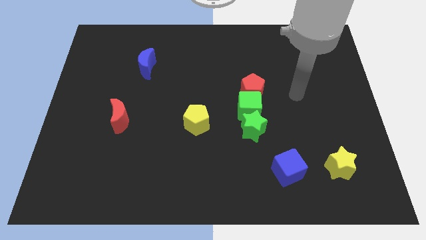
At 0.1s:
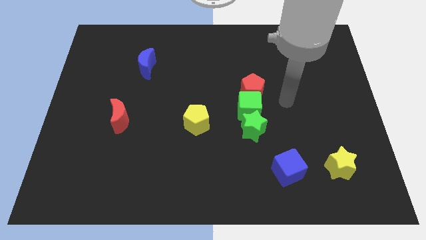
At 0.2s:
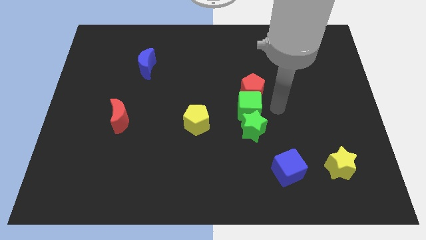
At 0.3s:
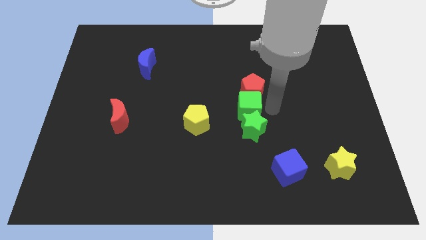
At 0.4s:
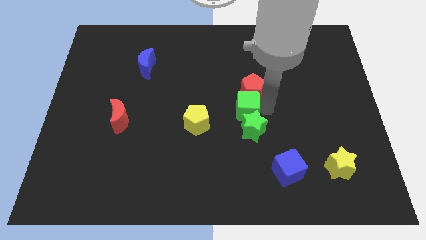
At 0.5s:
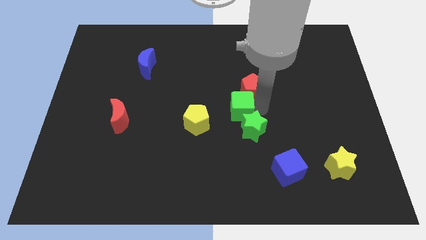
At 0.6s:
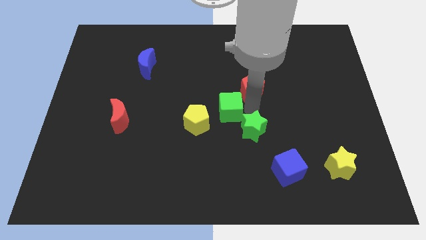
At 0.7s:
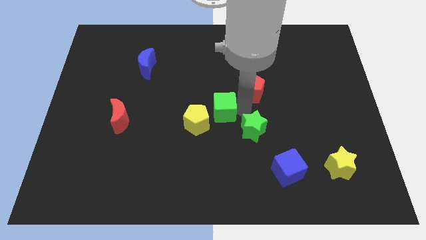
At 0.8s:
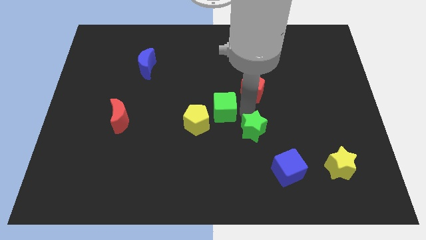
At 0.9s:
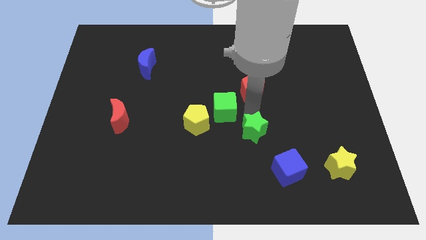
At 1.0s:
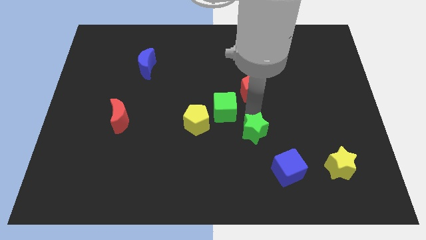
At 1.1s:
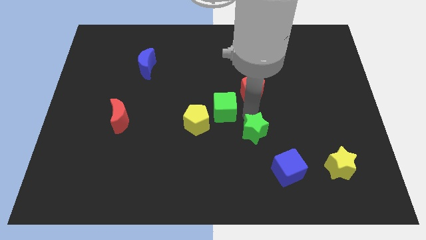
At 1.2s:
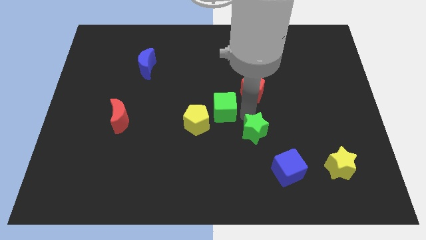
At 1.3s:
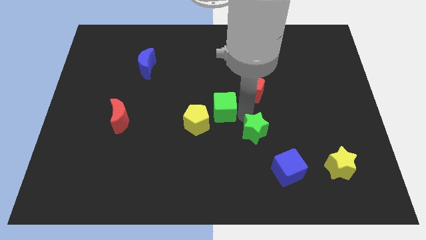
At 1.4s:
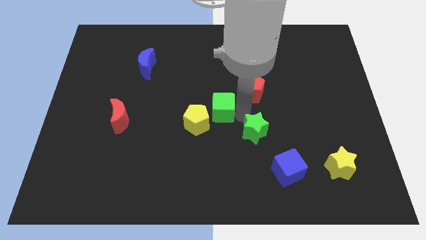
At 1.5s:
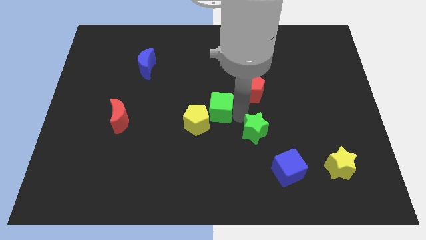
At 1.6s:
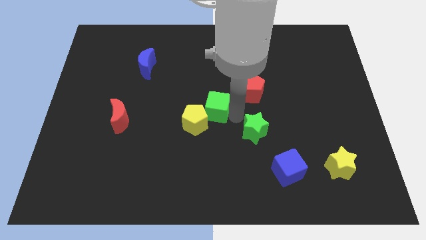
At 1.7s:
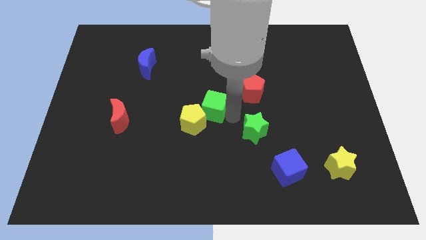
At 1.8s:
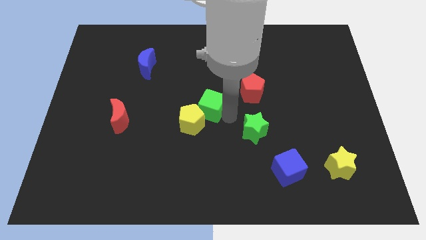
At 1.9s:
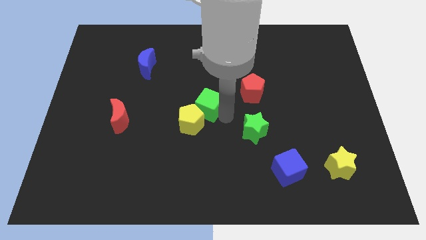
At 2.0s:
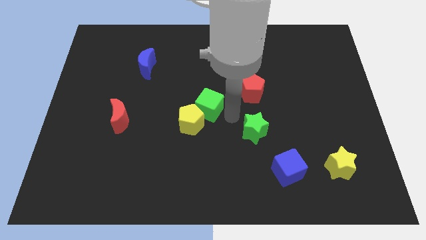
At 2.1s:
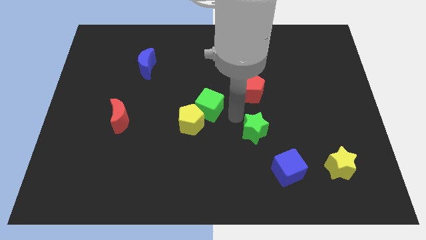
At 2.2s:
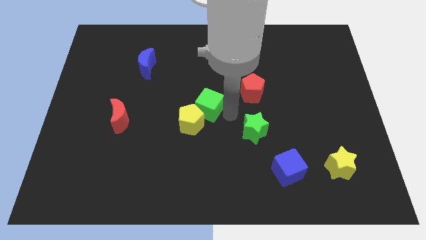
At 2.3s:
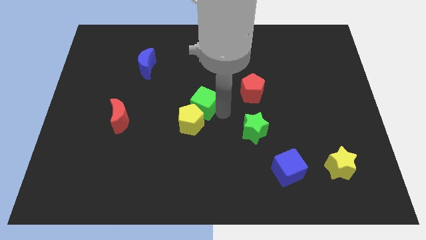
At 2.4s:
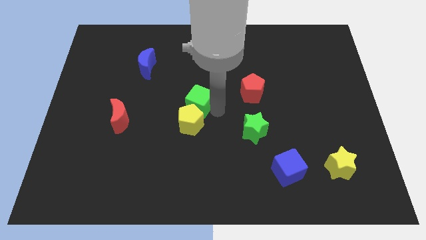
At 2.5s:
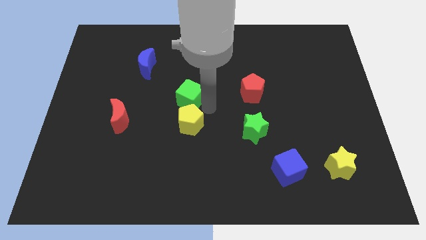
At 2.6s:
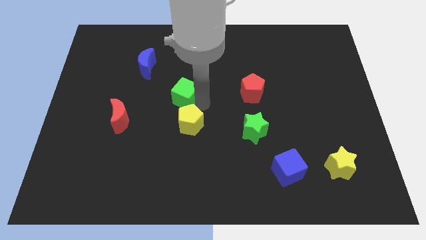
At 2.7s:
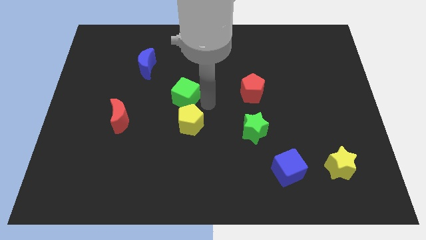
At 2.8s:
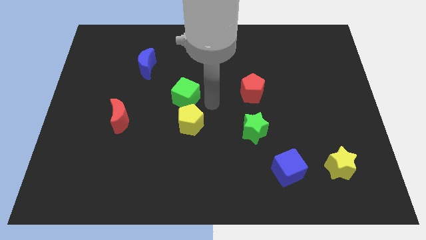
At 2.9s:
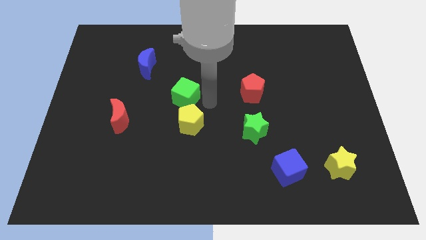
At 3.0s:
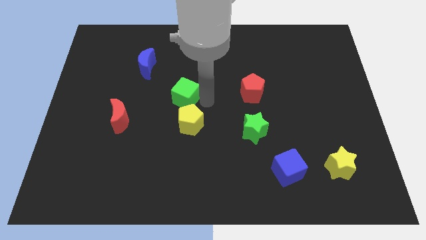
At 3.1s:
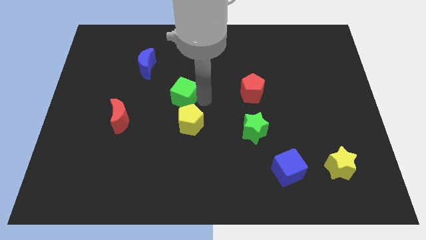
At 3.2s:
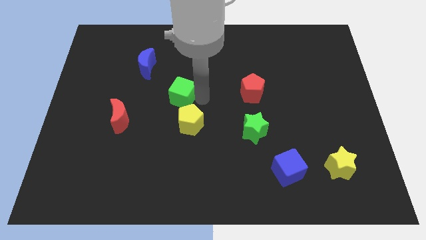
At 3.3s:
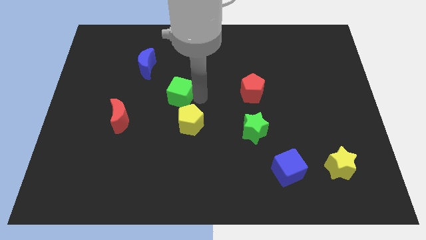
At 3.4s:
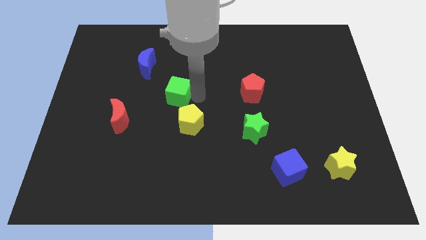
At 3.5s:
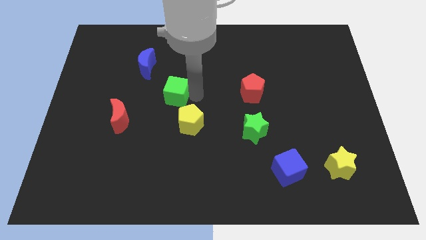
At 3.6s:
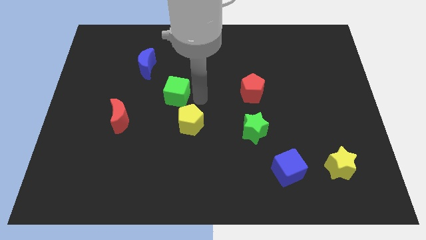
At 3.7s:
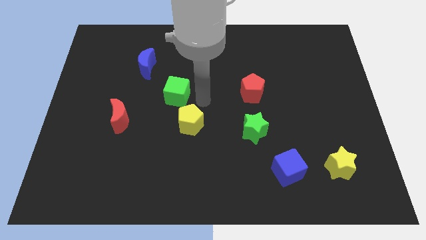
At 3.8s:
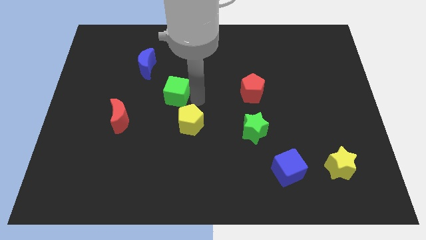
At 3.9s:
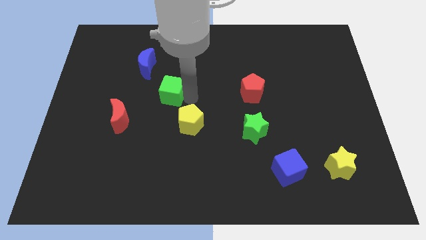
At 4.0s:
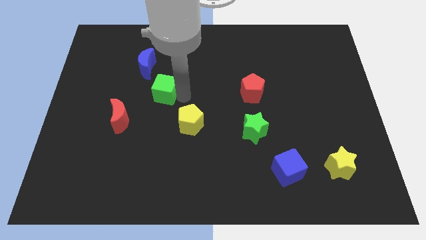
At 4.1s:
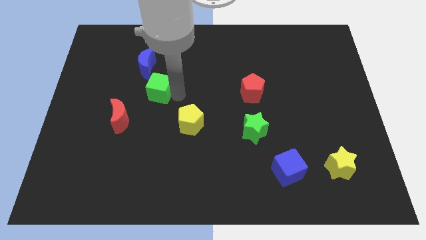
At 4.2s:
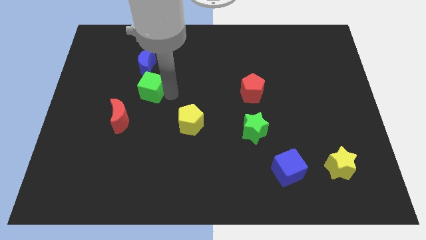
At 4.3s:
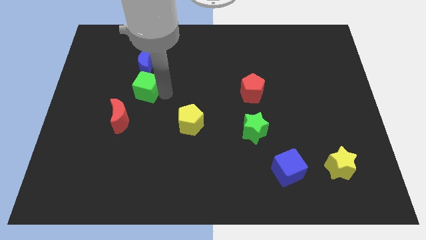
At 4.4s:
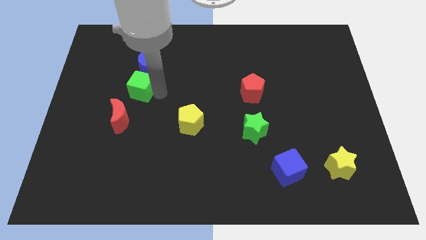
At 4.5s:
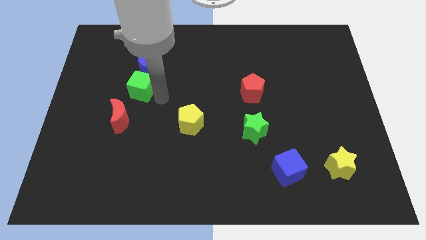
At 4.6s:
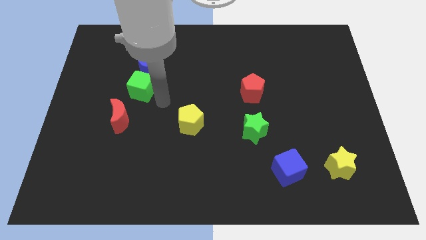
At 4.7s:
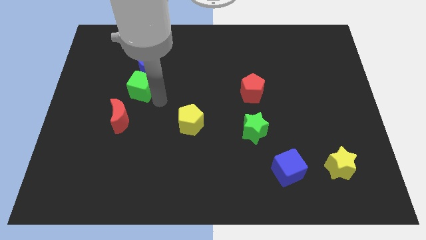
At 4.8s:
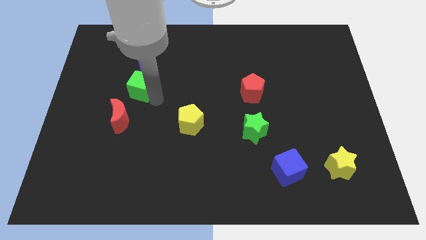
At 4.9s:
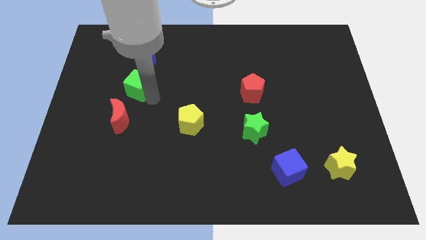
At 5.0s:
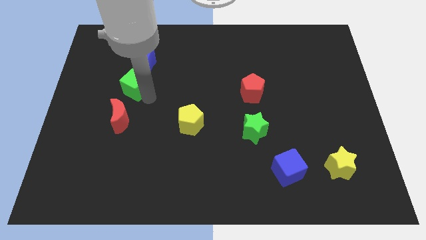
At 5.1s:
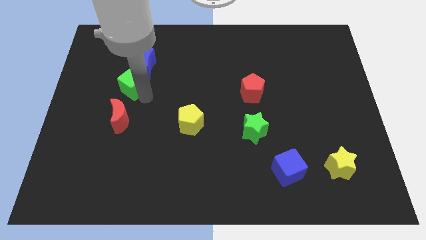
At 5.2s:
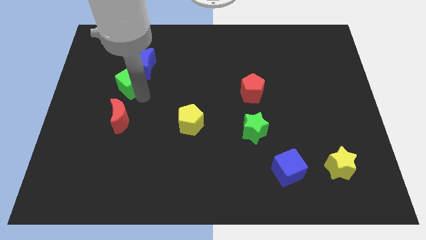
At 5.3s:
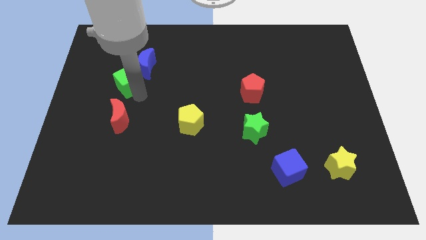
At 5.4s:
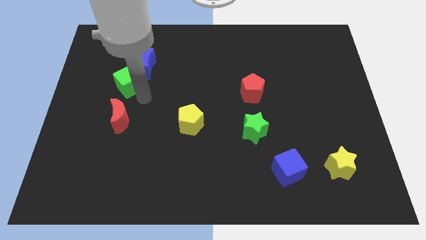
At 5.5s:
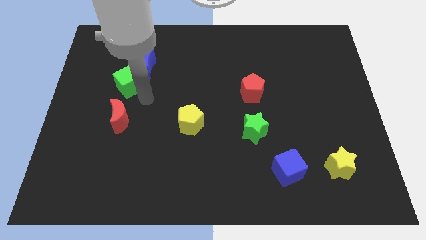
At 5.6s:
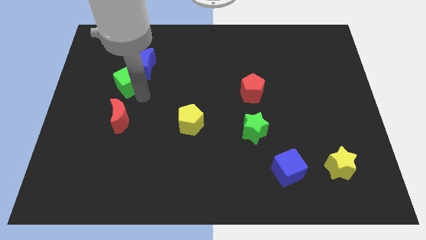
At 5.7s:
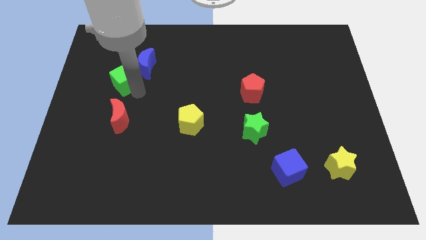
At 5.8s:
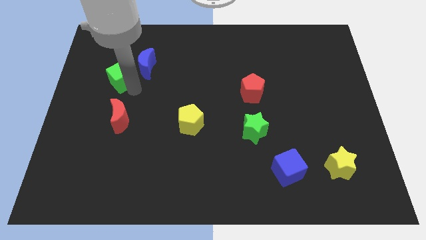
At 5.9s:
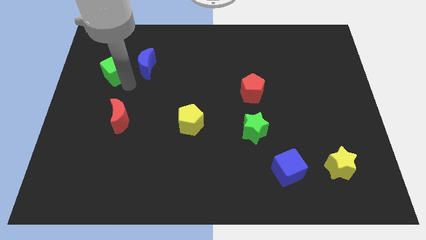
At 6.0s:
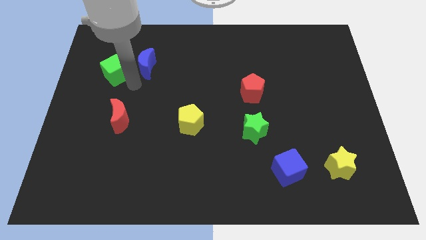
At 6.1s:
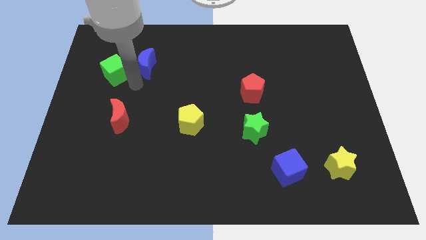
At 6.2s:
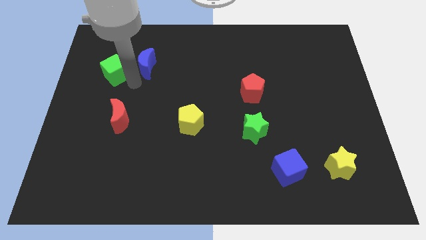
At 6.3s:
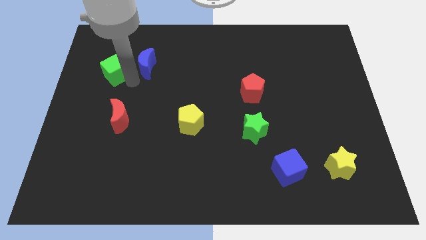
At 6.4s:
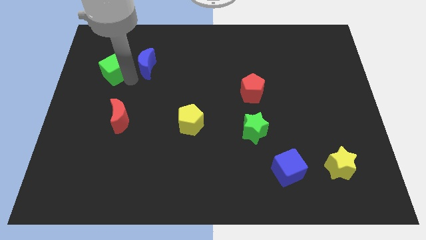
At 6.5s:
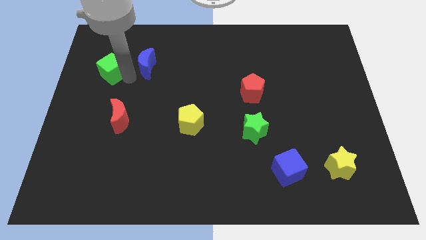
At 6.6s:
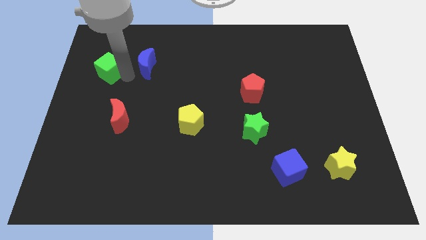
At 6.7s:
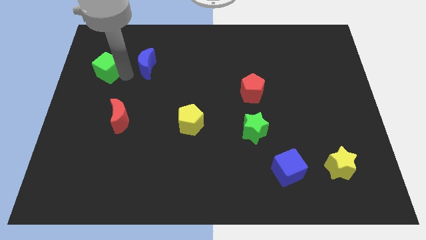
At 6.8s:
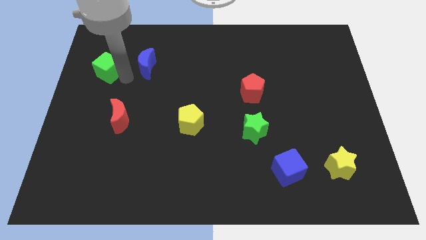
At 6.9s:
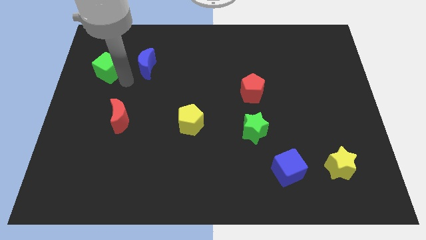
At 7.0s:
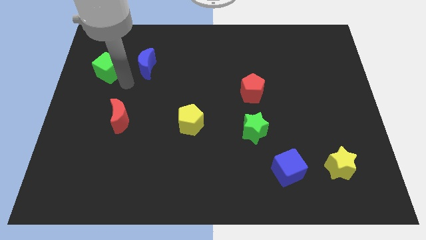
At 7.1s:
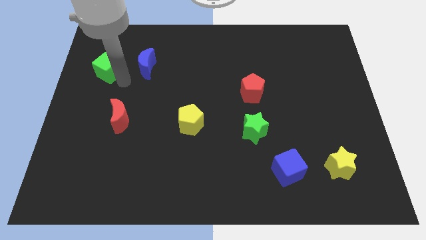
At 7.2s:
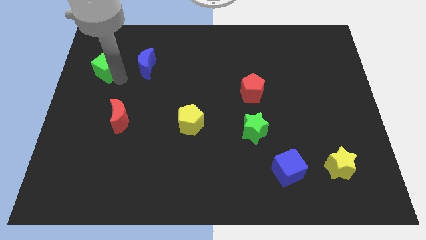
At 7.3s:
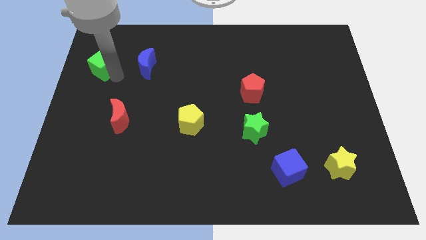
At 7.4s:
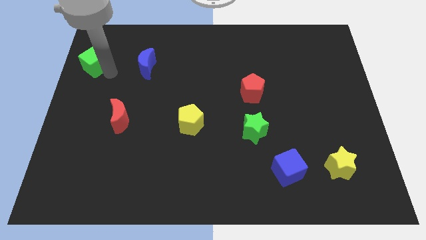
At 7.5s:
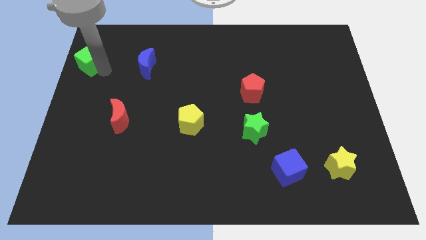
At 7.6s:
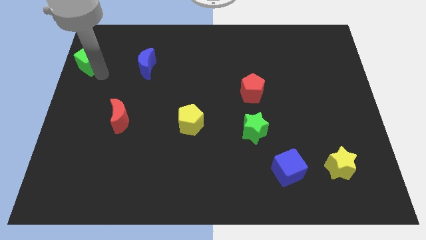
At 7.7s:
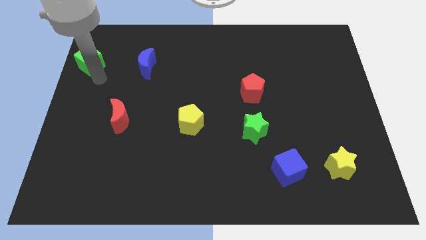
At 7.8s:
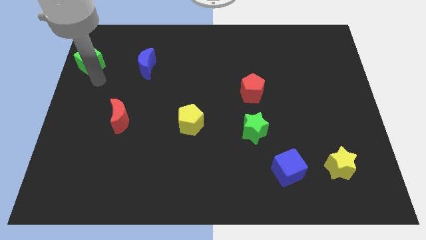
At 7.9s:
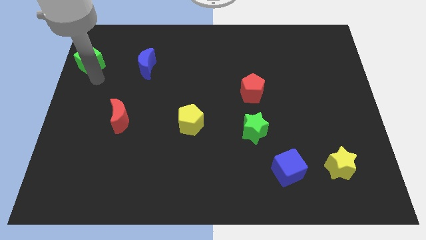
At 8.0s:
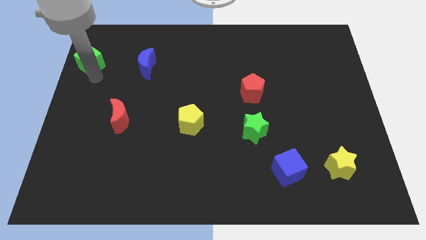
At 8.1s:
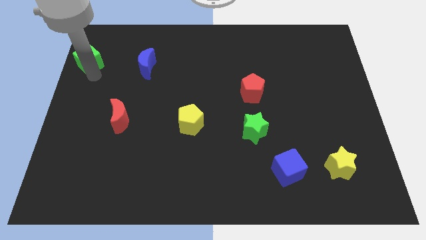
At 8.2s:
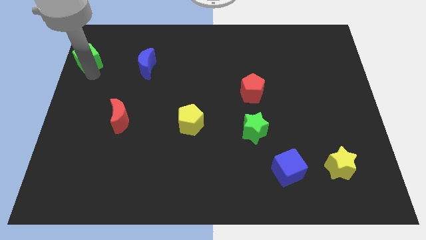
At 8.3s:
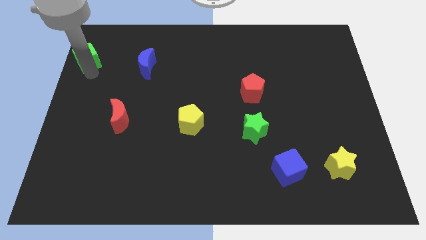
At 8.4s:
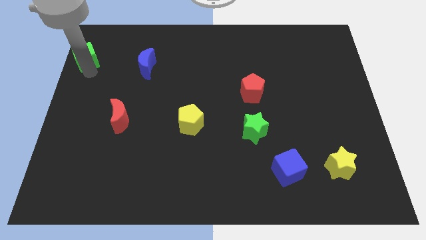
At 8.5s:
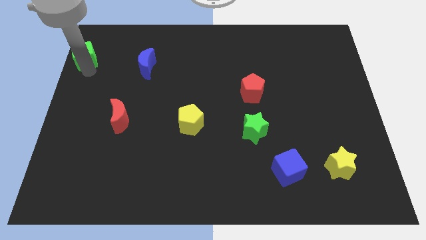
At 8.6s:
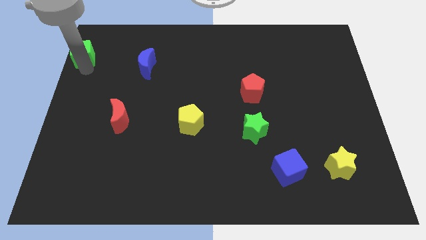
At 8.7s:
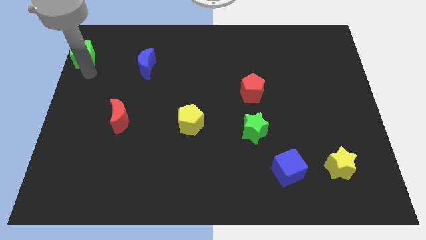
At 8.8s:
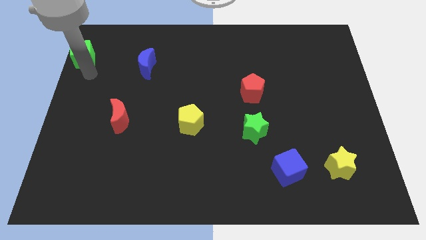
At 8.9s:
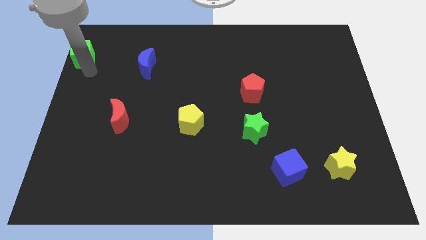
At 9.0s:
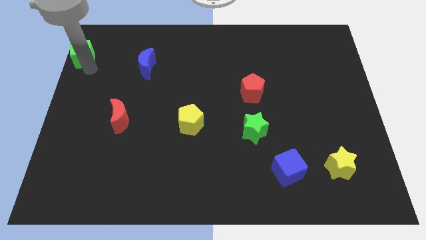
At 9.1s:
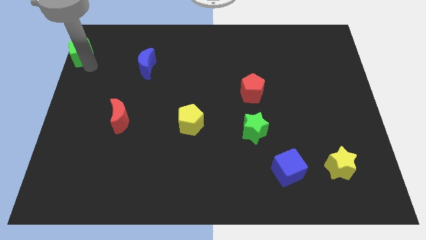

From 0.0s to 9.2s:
push the green cube to the upper left corner
